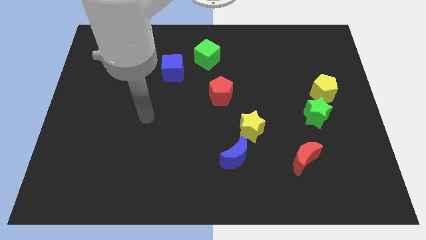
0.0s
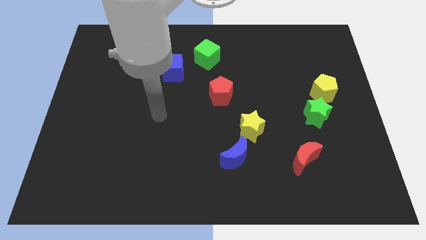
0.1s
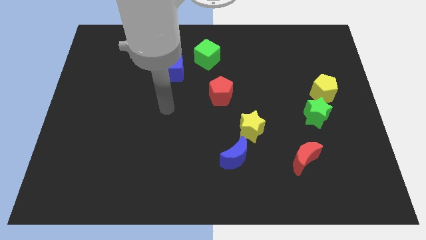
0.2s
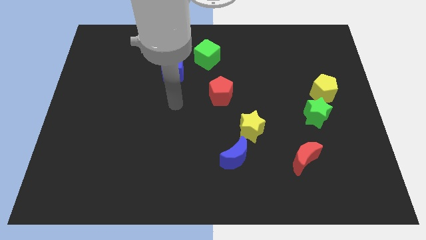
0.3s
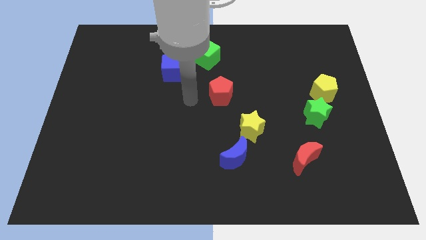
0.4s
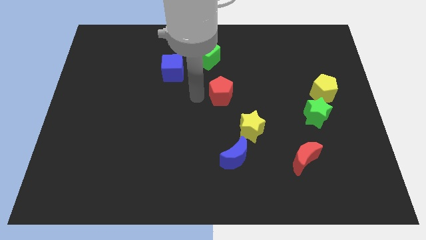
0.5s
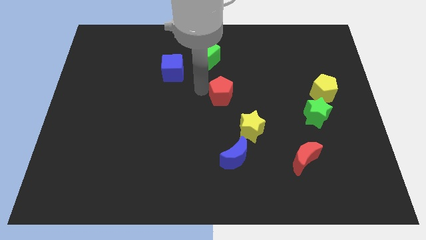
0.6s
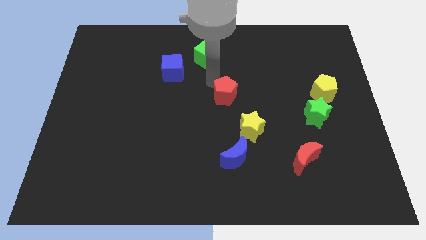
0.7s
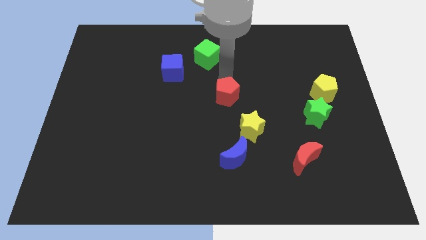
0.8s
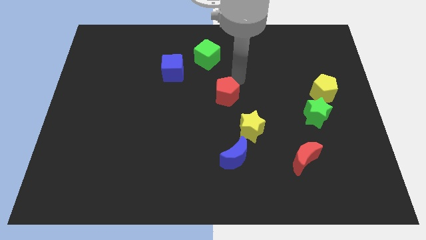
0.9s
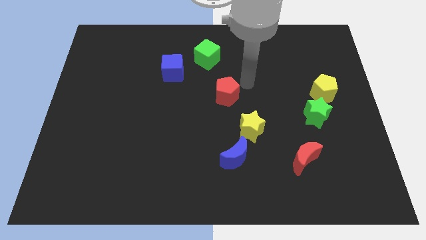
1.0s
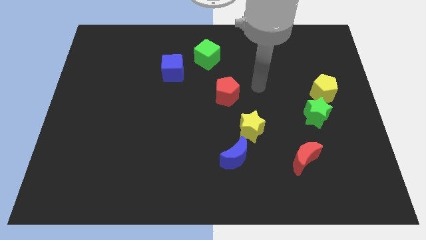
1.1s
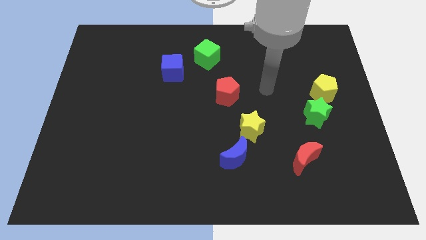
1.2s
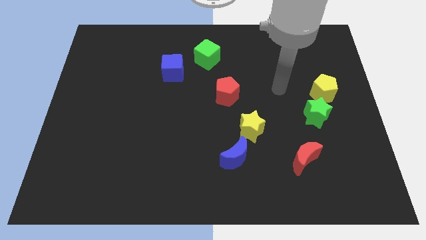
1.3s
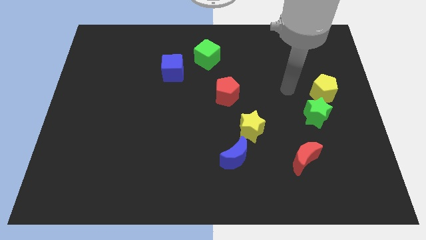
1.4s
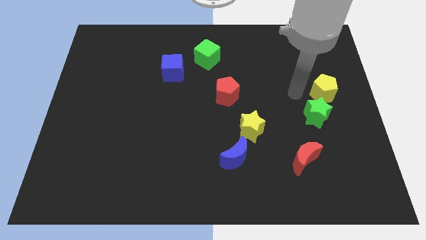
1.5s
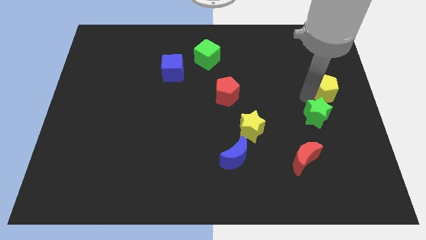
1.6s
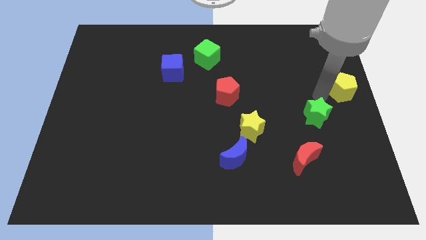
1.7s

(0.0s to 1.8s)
move the green star away from the yellow pentagon

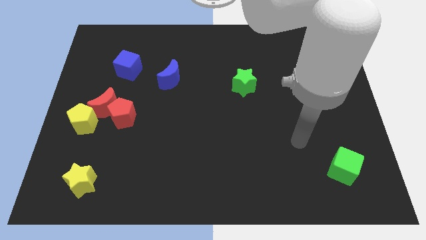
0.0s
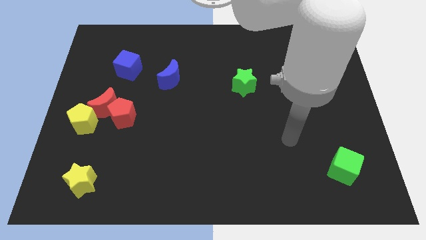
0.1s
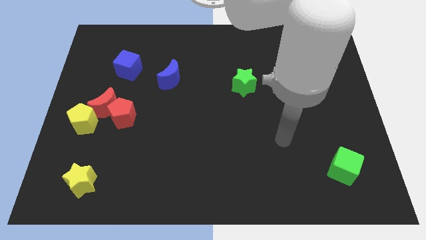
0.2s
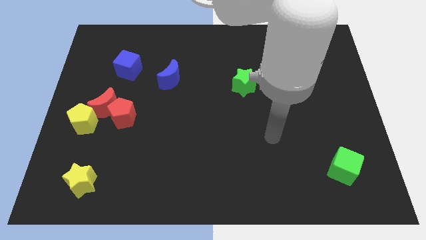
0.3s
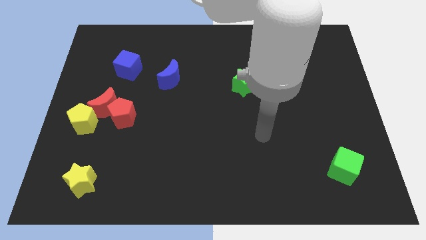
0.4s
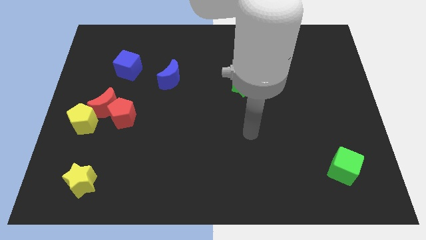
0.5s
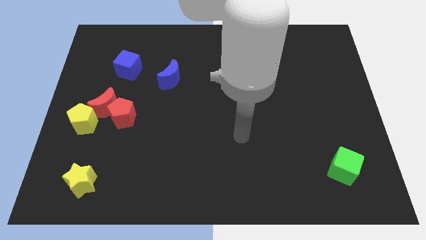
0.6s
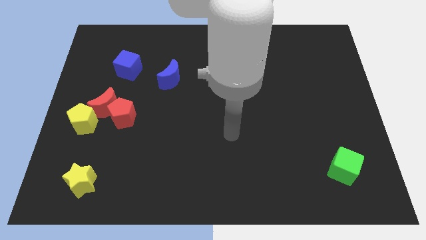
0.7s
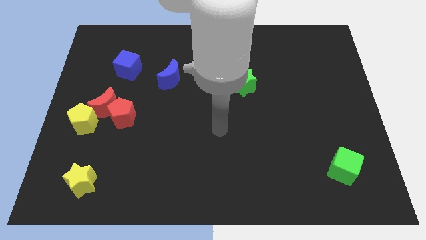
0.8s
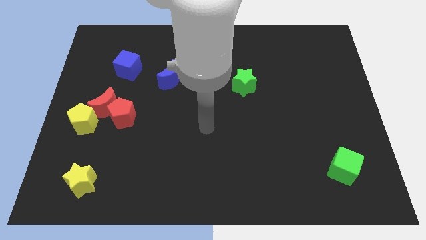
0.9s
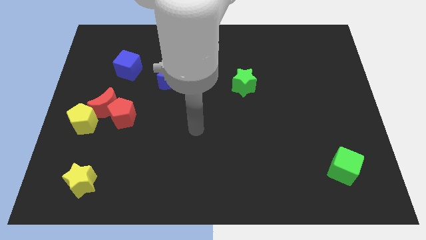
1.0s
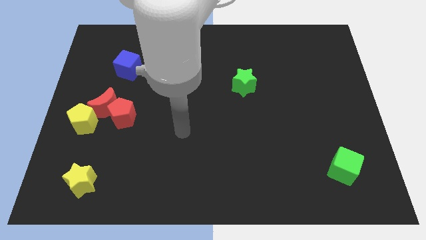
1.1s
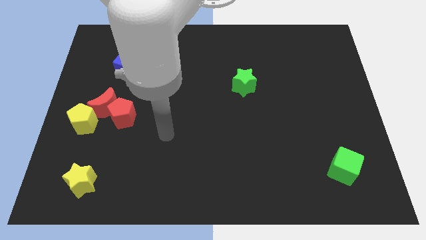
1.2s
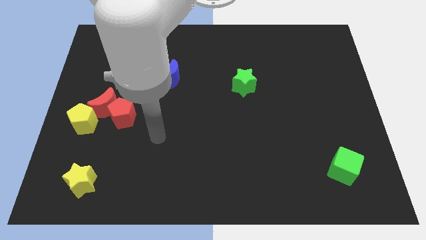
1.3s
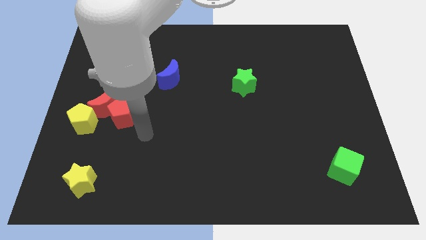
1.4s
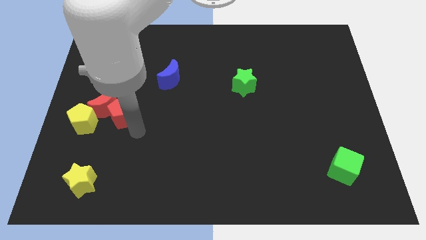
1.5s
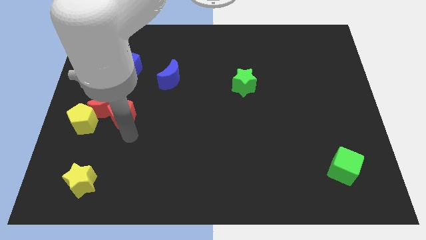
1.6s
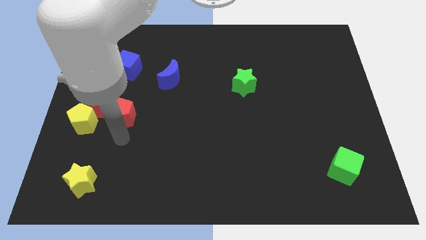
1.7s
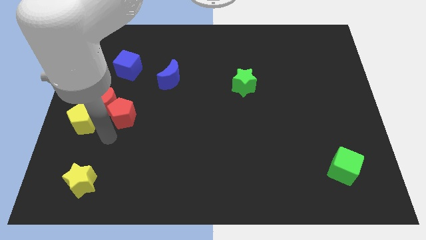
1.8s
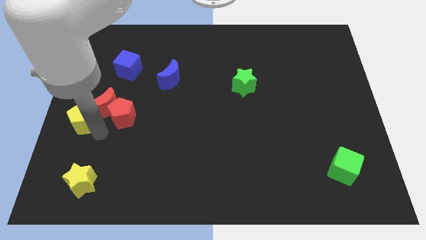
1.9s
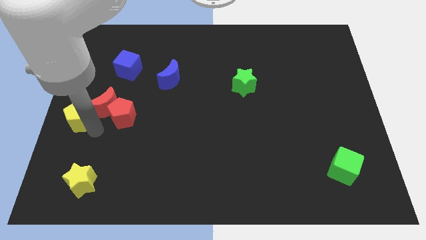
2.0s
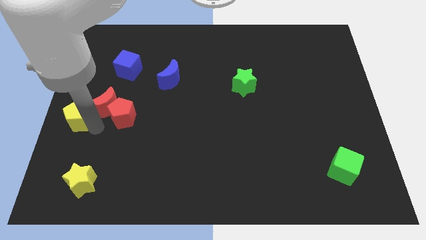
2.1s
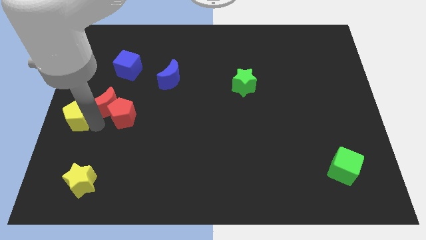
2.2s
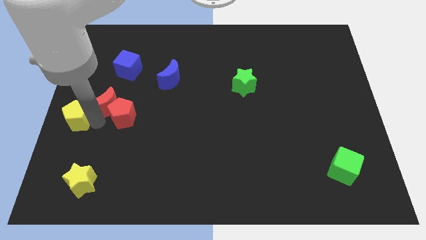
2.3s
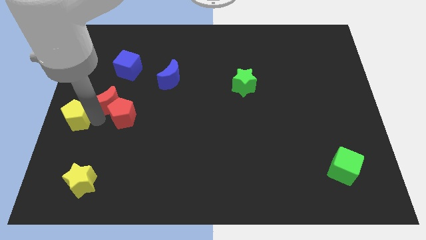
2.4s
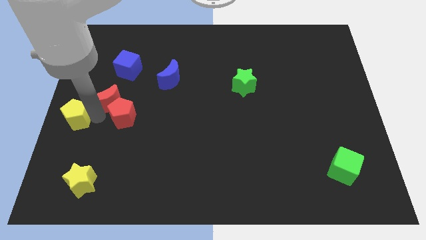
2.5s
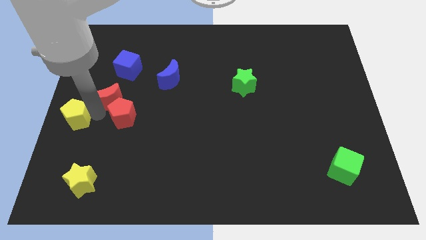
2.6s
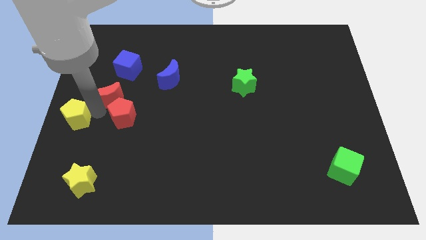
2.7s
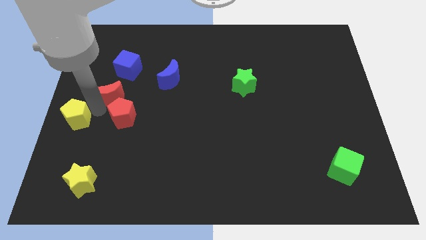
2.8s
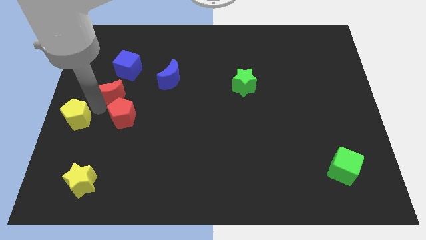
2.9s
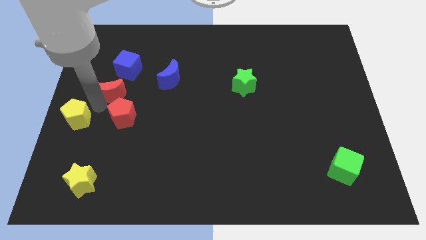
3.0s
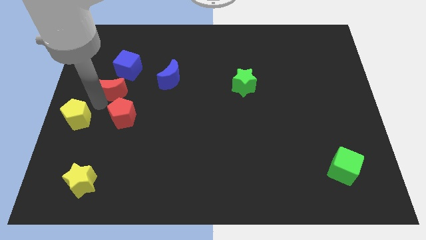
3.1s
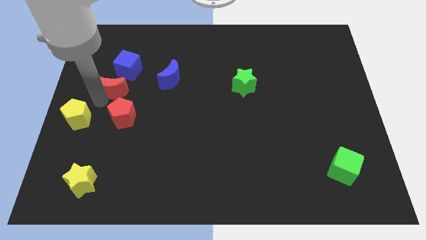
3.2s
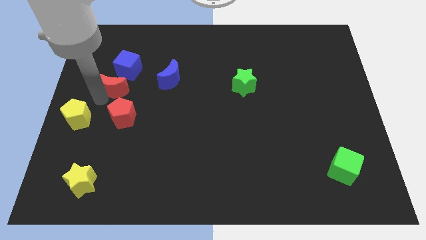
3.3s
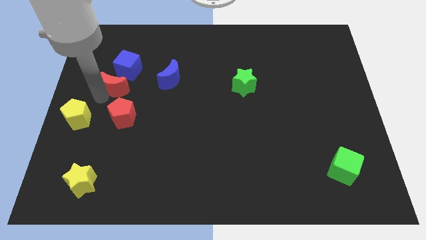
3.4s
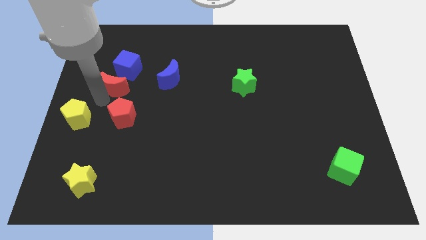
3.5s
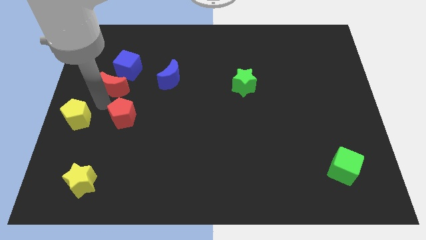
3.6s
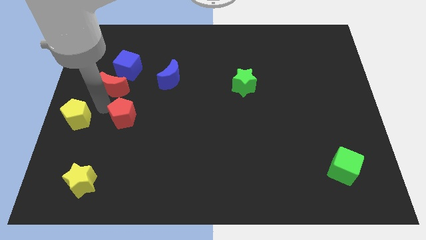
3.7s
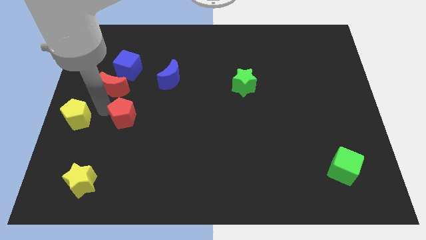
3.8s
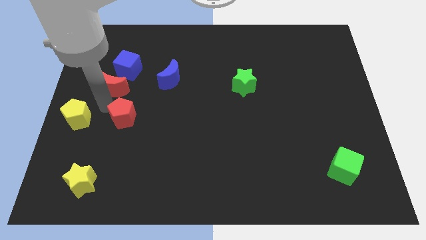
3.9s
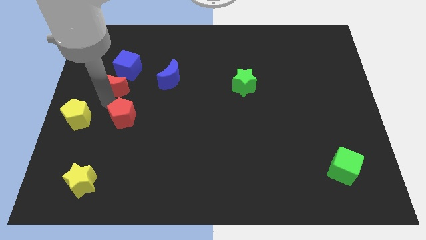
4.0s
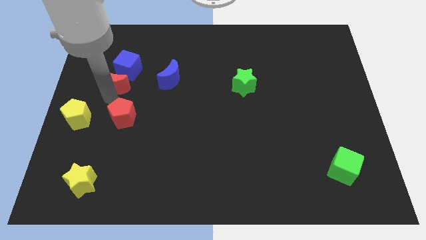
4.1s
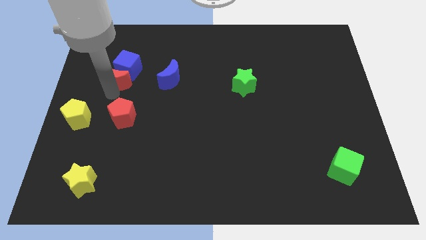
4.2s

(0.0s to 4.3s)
separate the red moon from the red pentagon and yellow pentagon

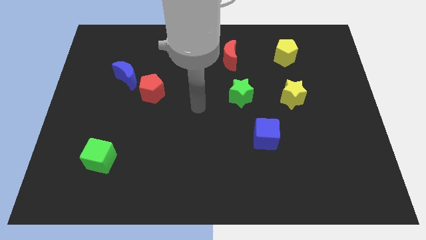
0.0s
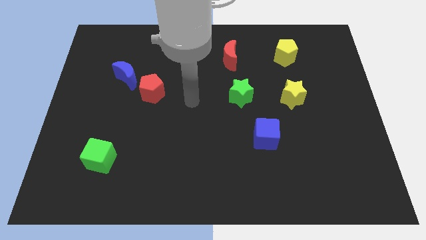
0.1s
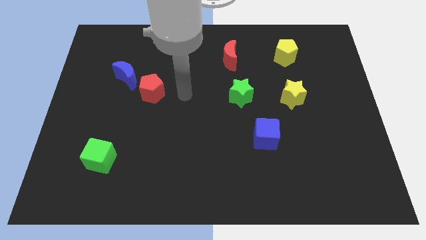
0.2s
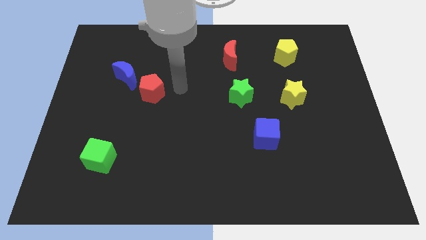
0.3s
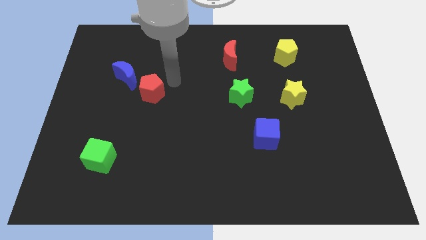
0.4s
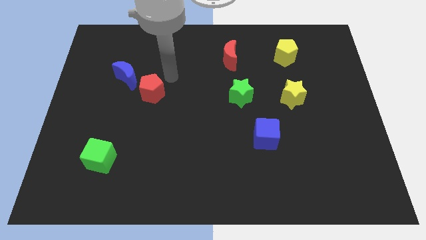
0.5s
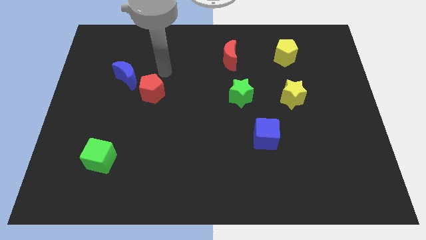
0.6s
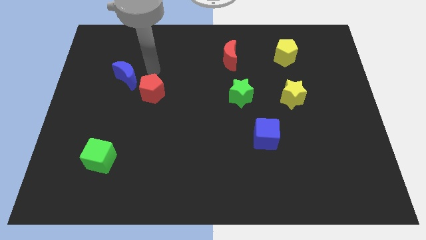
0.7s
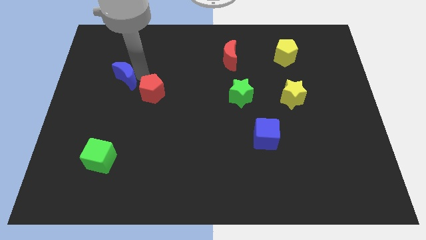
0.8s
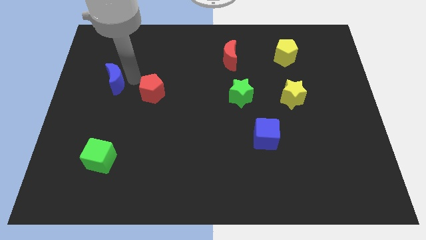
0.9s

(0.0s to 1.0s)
pull the red pentagon apart from the blue moon

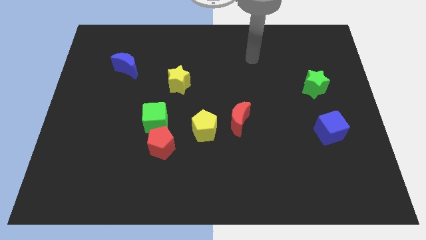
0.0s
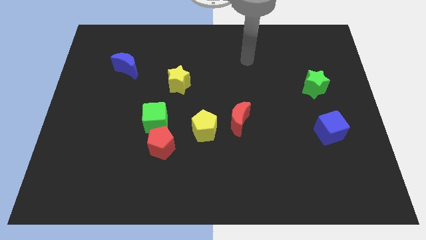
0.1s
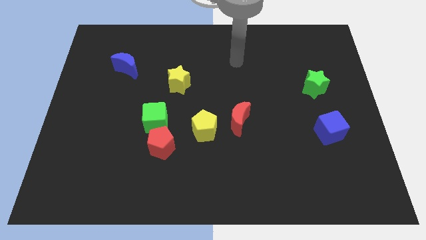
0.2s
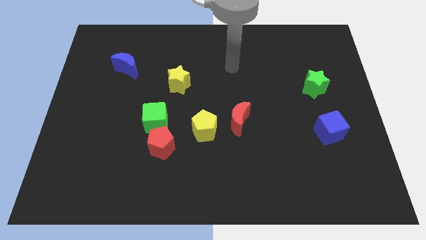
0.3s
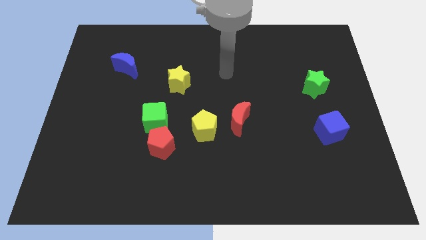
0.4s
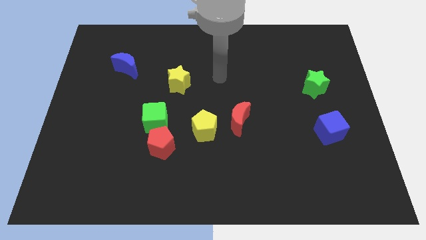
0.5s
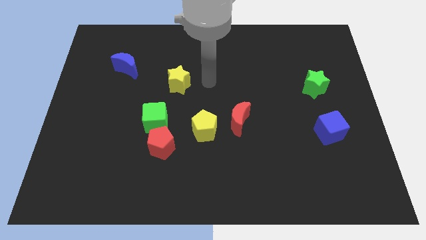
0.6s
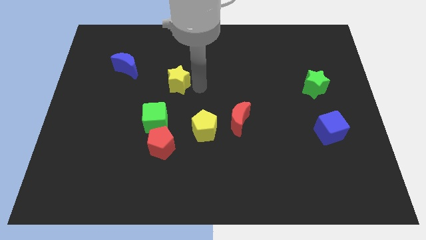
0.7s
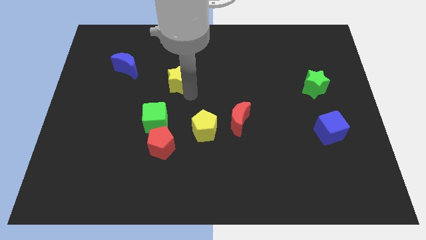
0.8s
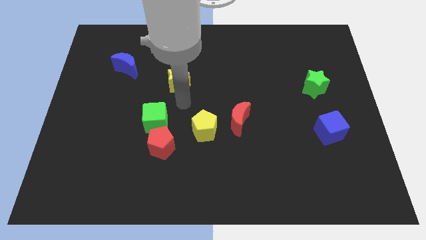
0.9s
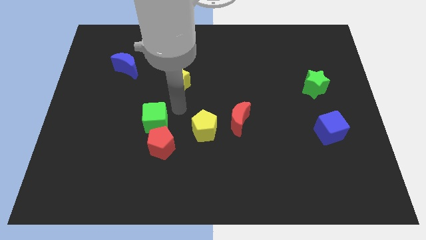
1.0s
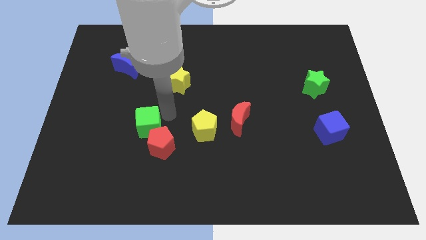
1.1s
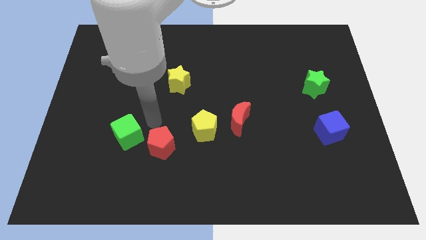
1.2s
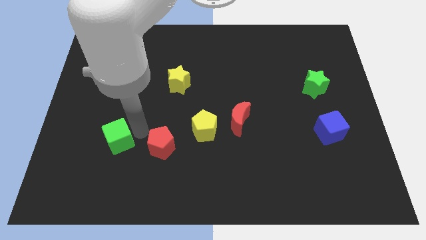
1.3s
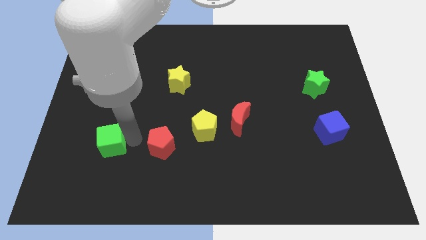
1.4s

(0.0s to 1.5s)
separate the red pentagon from the green cube

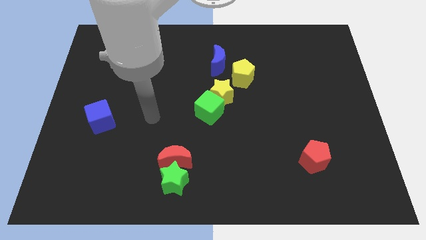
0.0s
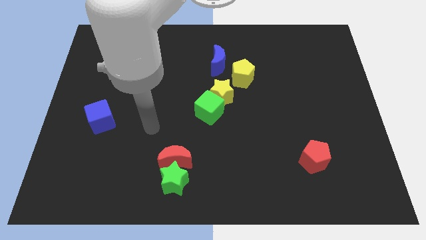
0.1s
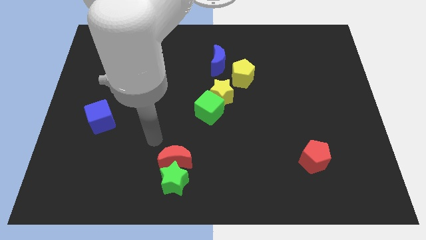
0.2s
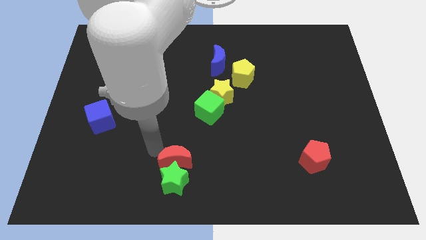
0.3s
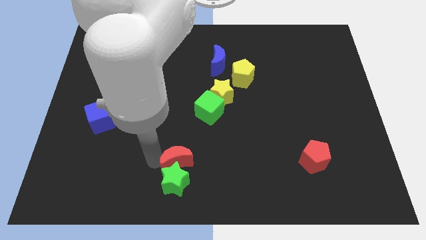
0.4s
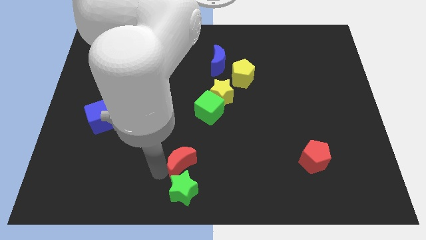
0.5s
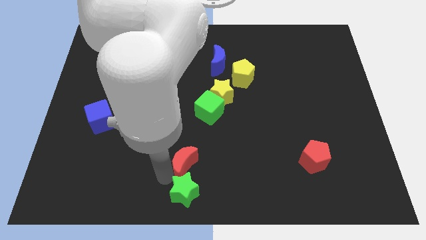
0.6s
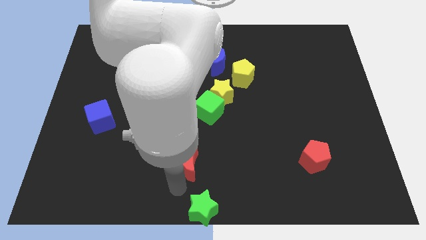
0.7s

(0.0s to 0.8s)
move the red moon away from the green star
